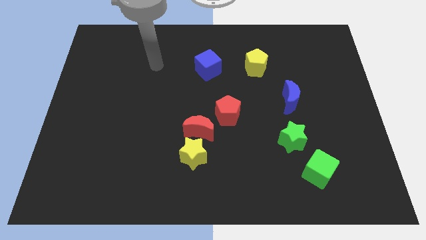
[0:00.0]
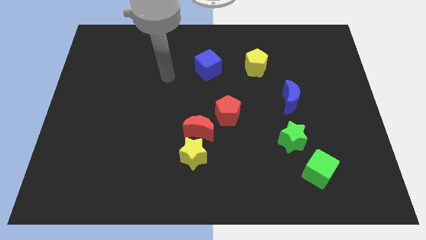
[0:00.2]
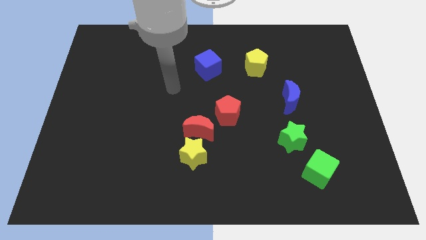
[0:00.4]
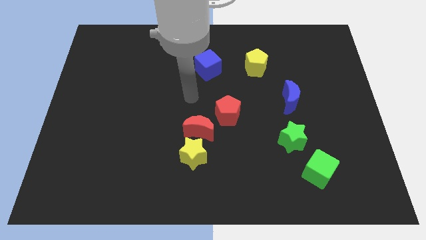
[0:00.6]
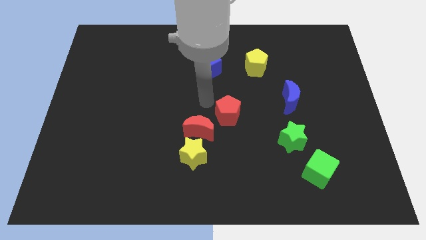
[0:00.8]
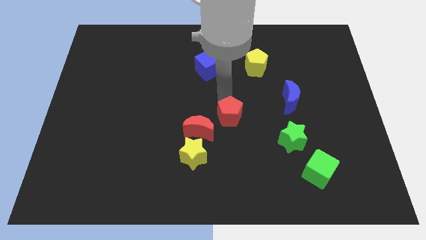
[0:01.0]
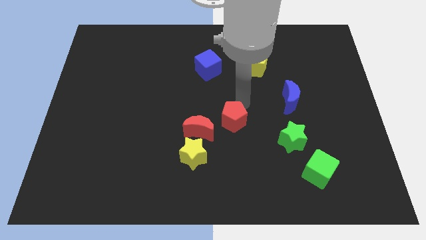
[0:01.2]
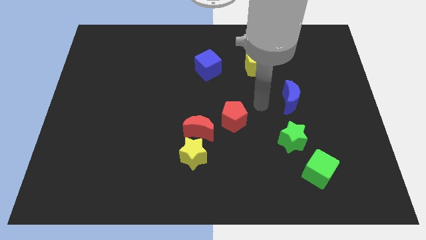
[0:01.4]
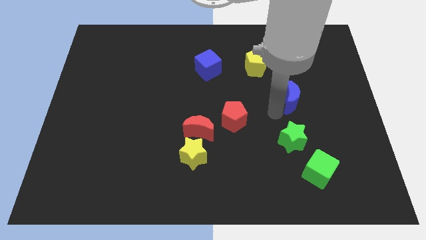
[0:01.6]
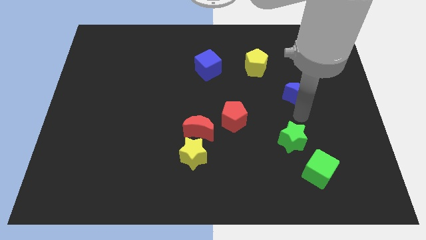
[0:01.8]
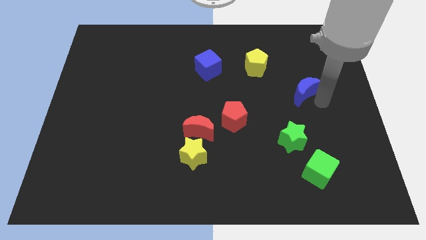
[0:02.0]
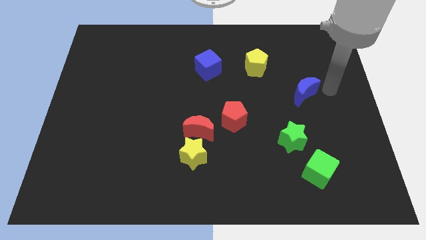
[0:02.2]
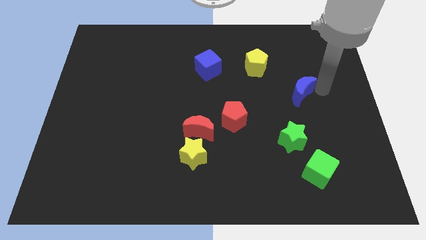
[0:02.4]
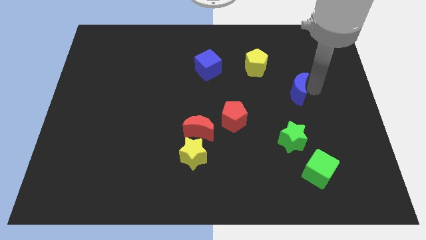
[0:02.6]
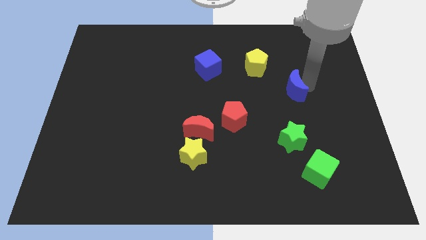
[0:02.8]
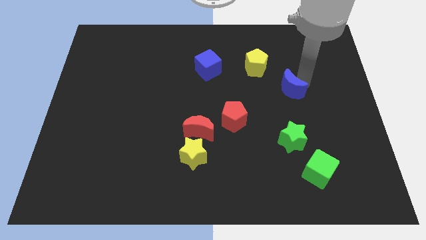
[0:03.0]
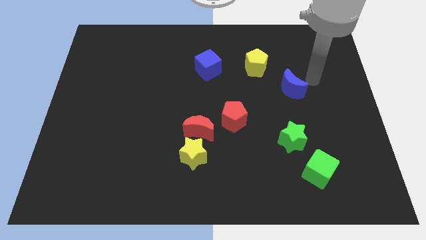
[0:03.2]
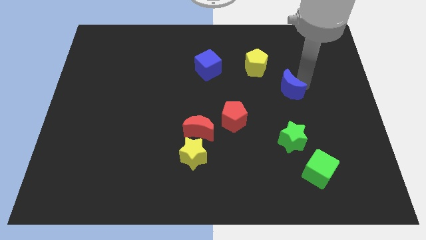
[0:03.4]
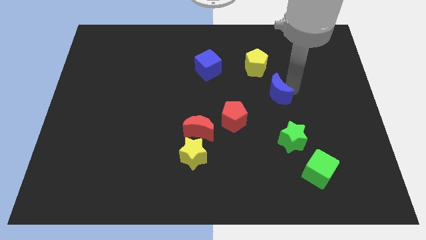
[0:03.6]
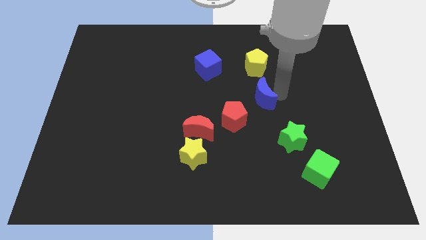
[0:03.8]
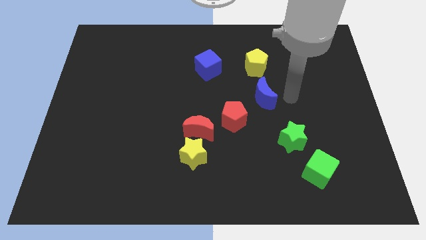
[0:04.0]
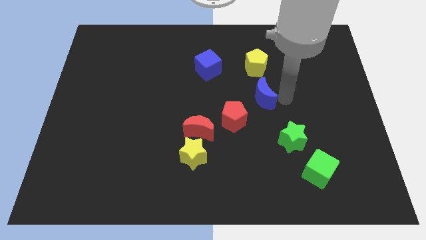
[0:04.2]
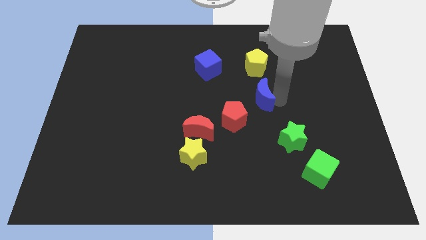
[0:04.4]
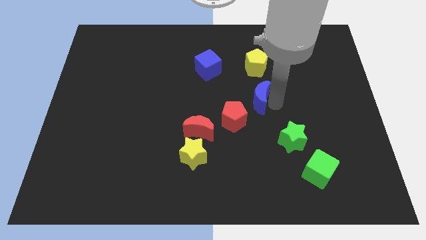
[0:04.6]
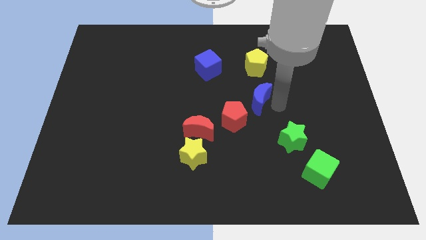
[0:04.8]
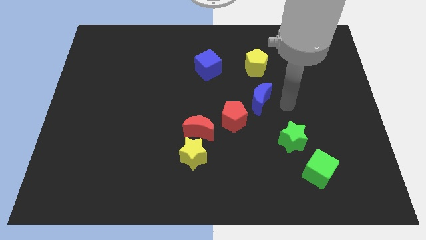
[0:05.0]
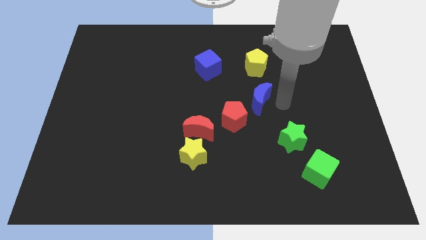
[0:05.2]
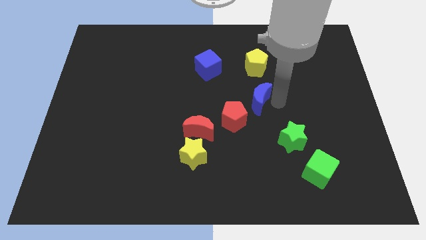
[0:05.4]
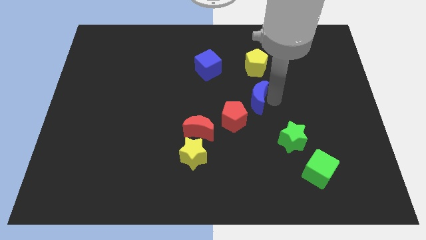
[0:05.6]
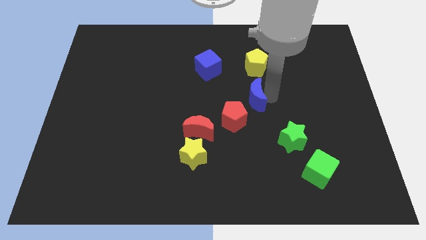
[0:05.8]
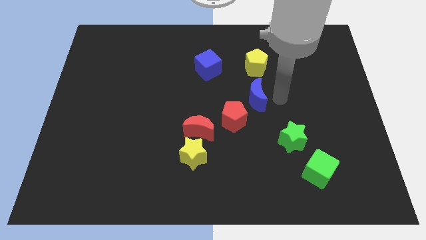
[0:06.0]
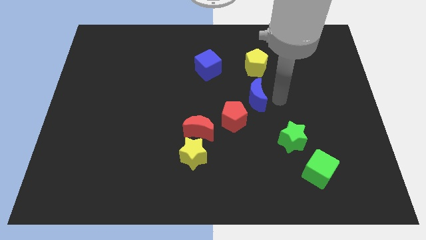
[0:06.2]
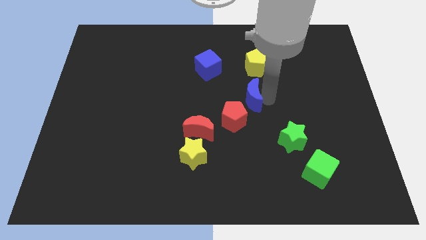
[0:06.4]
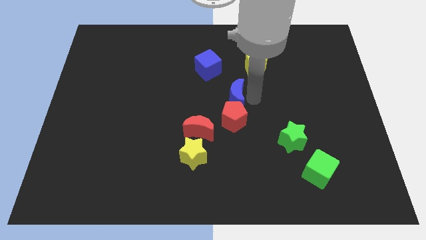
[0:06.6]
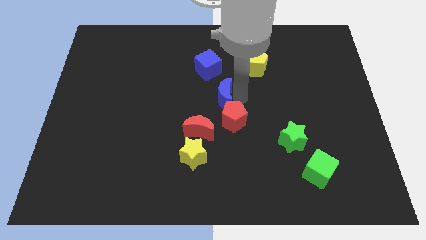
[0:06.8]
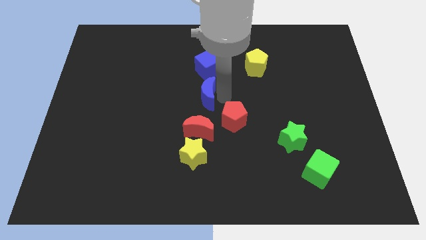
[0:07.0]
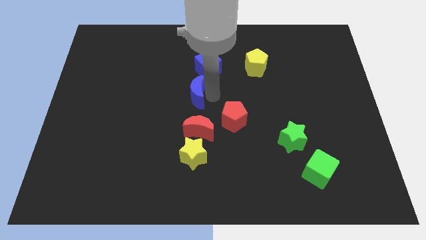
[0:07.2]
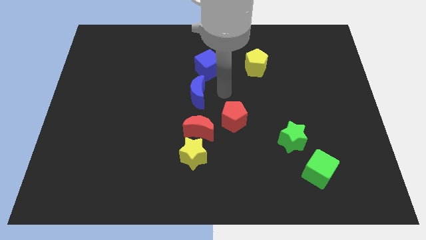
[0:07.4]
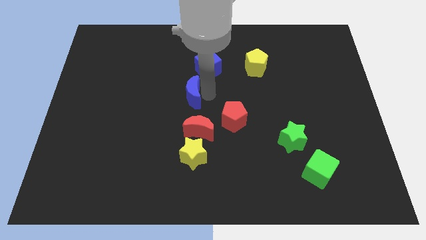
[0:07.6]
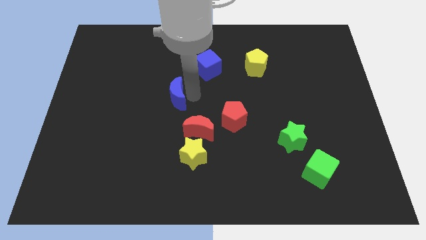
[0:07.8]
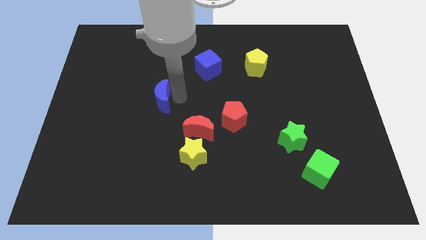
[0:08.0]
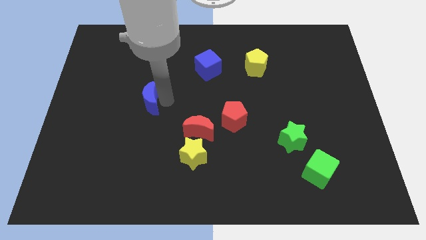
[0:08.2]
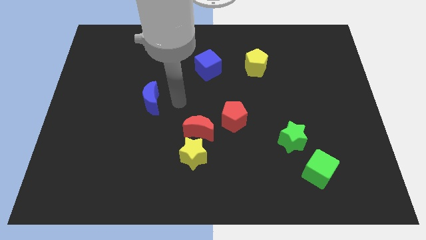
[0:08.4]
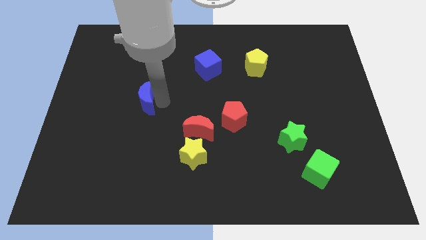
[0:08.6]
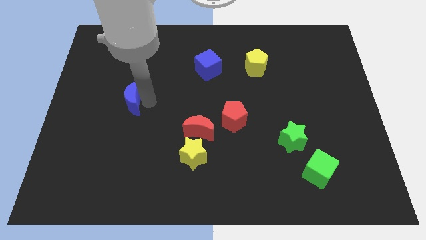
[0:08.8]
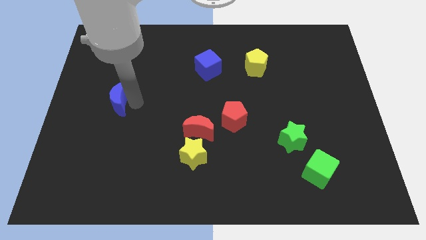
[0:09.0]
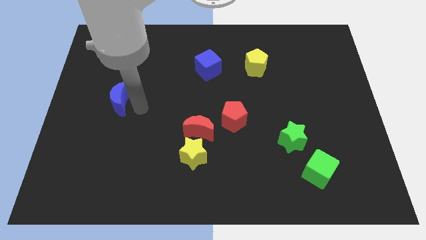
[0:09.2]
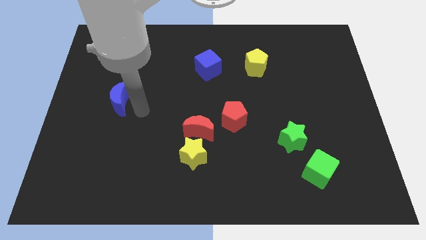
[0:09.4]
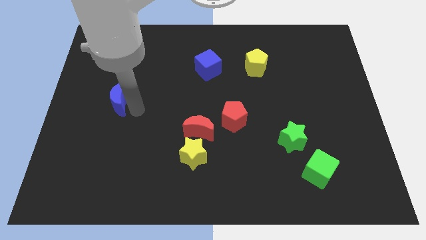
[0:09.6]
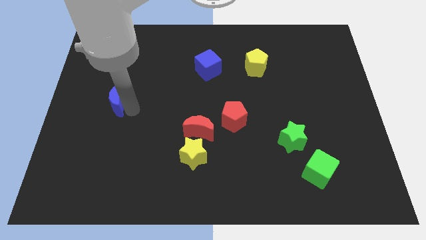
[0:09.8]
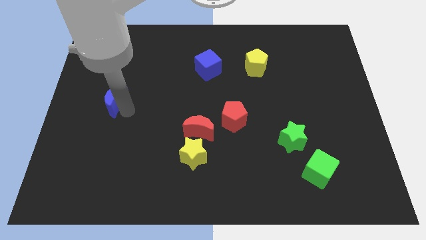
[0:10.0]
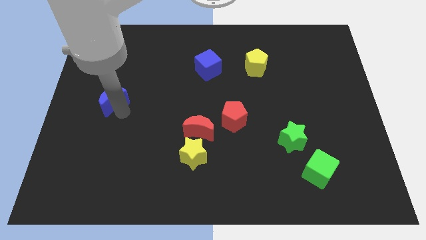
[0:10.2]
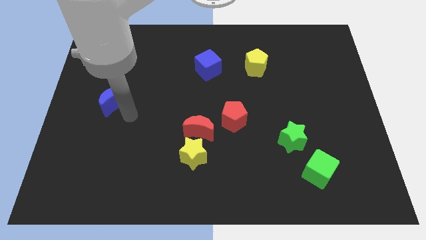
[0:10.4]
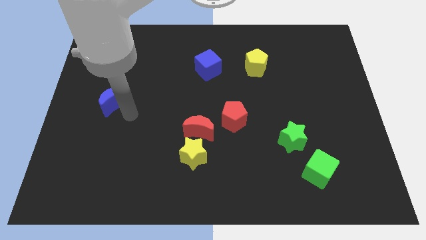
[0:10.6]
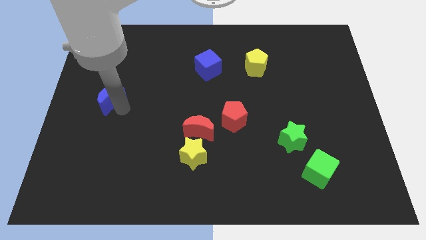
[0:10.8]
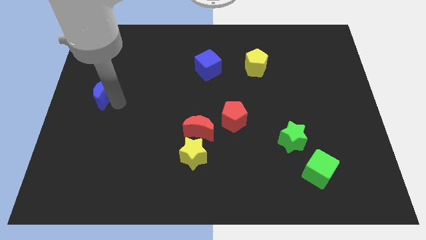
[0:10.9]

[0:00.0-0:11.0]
put the blue moon to the center left

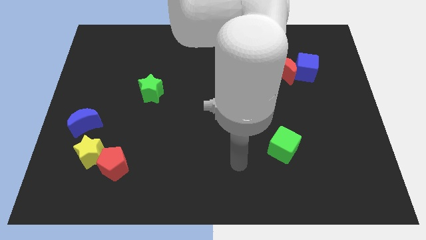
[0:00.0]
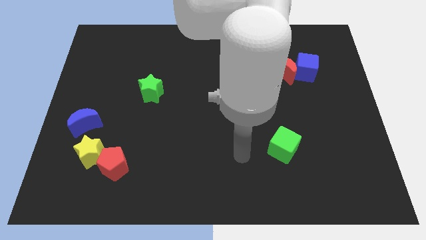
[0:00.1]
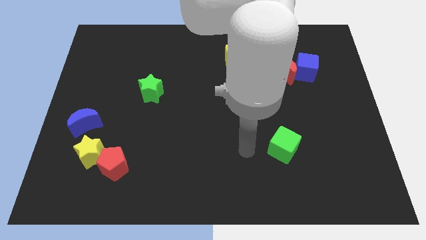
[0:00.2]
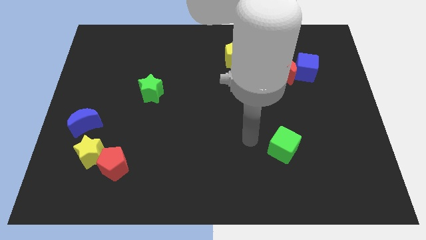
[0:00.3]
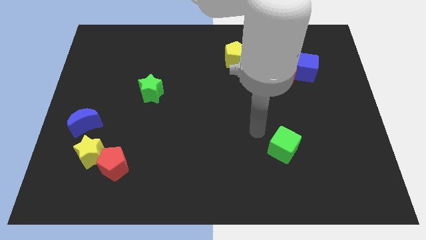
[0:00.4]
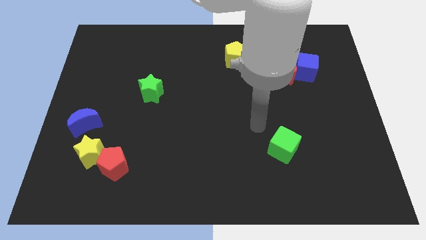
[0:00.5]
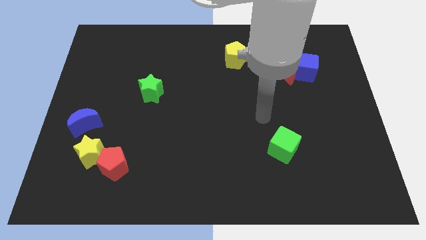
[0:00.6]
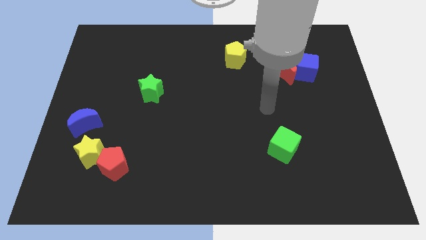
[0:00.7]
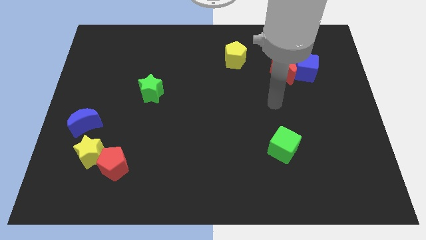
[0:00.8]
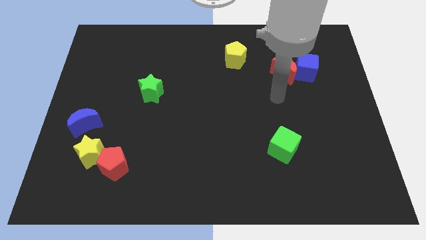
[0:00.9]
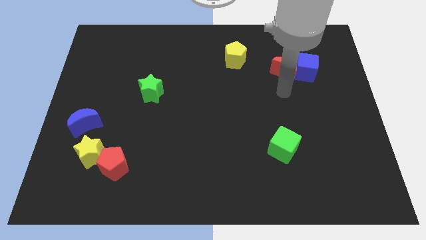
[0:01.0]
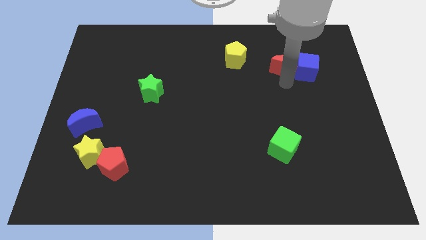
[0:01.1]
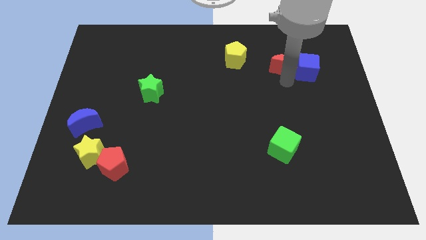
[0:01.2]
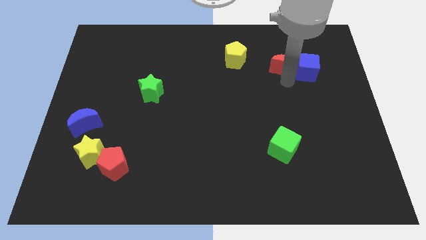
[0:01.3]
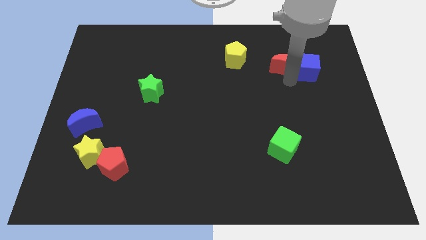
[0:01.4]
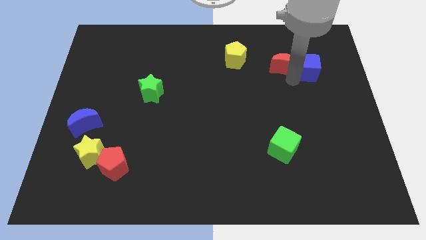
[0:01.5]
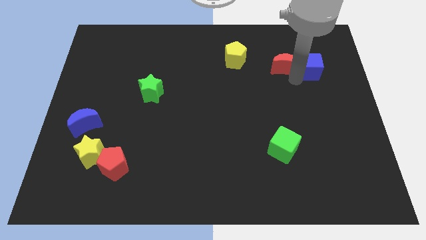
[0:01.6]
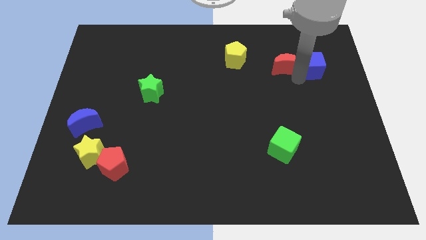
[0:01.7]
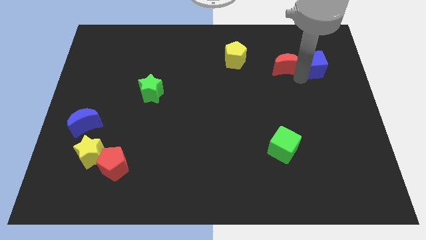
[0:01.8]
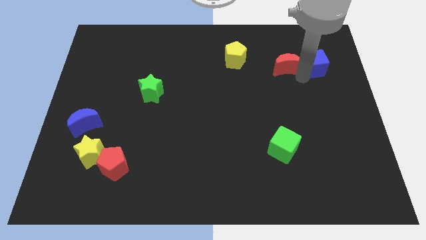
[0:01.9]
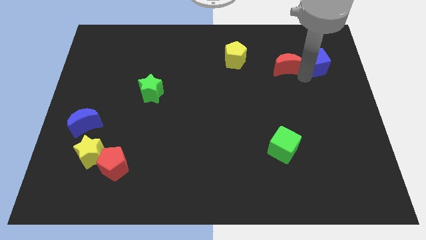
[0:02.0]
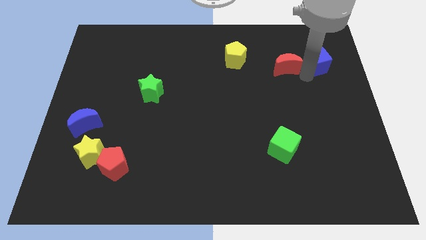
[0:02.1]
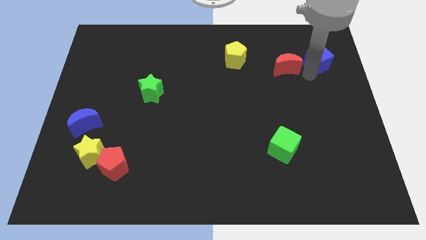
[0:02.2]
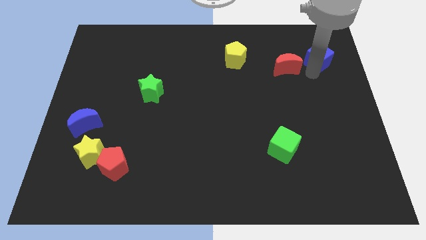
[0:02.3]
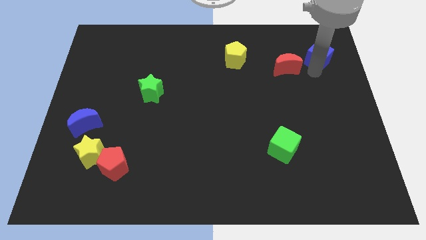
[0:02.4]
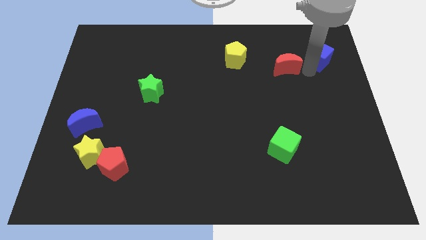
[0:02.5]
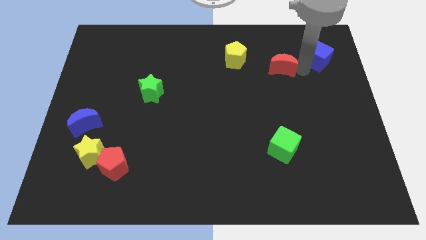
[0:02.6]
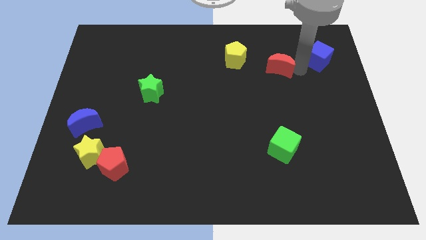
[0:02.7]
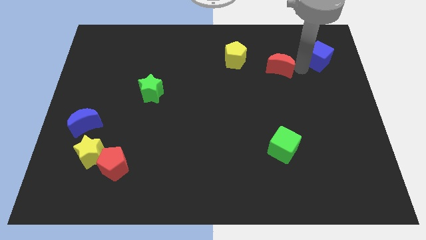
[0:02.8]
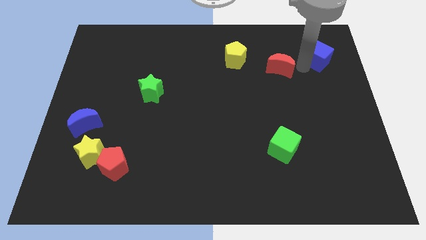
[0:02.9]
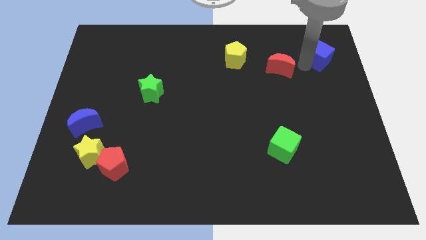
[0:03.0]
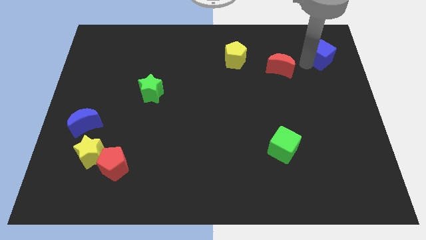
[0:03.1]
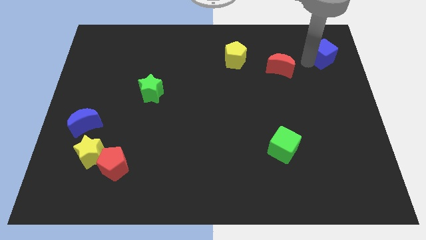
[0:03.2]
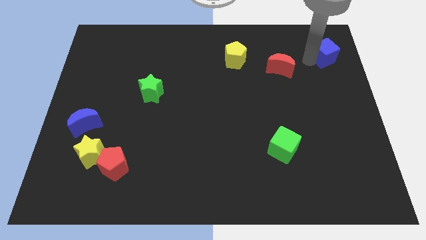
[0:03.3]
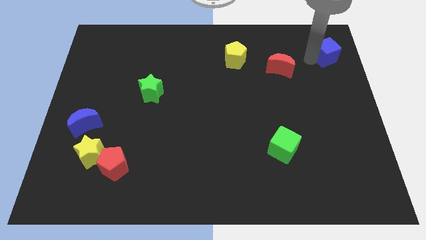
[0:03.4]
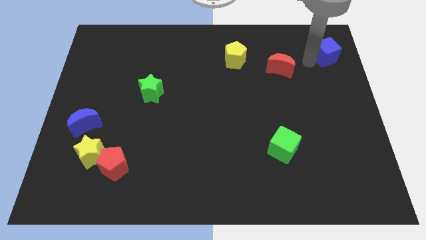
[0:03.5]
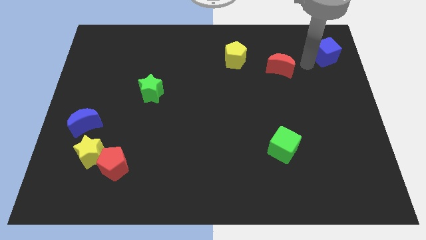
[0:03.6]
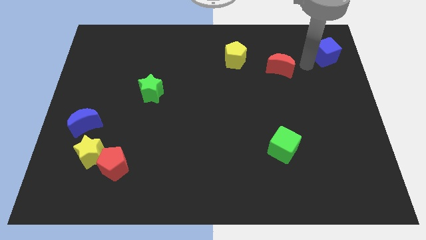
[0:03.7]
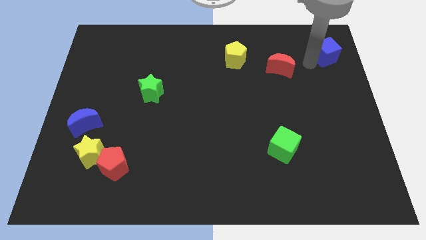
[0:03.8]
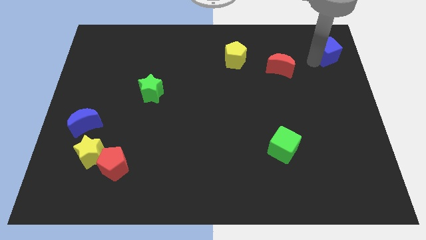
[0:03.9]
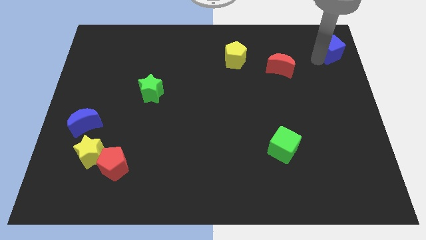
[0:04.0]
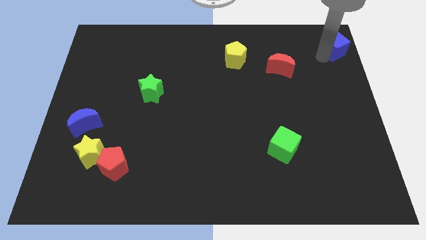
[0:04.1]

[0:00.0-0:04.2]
slide the blue cube to the top right of the board
